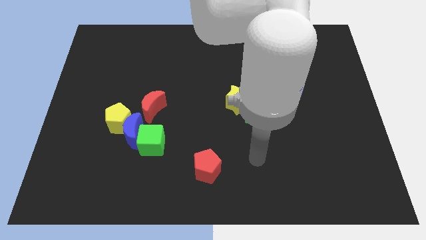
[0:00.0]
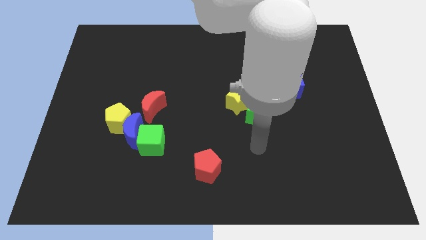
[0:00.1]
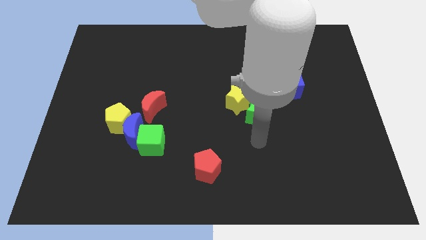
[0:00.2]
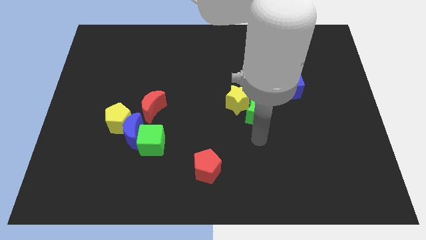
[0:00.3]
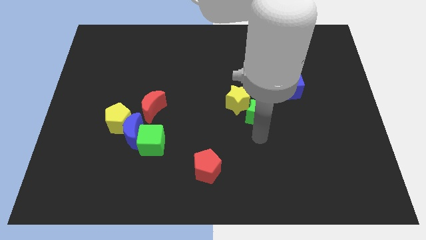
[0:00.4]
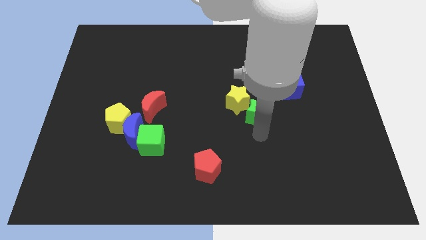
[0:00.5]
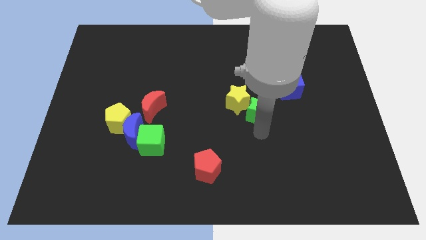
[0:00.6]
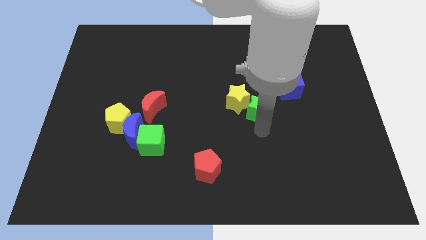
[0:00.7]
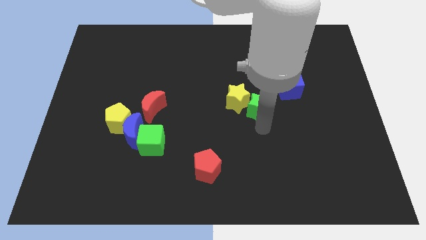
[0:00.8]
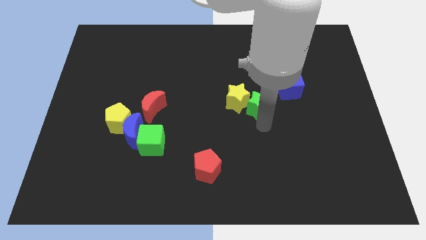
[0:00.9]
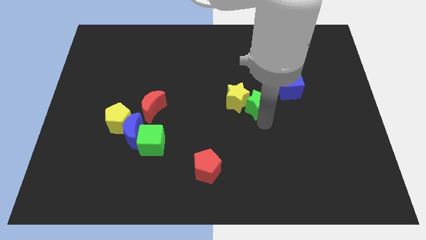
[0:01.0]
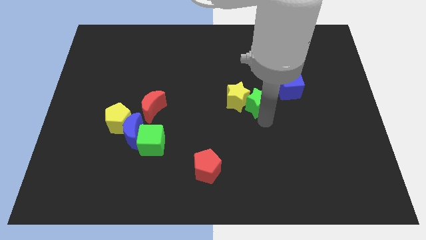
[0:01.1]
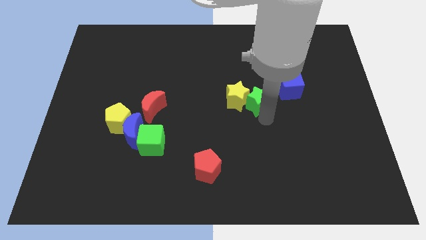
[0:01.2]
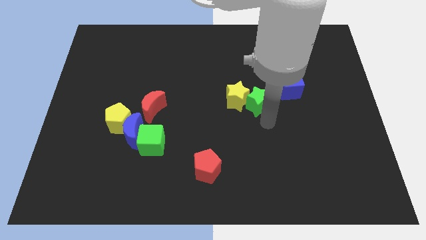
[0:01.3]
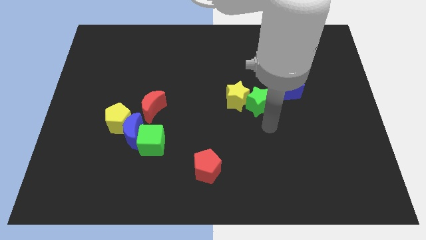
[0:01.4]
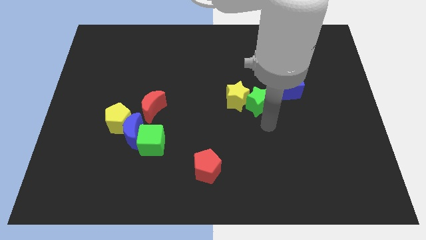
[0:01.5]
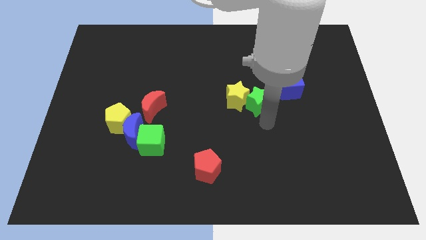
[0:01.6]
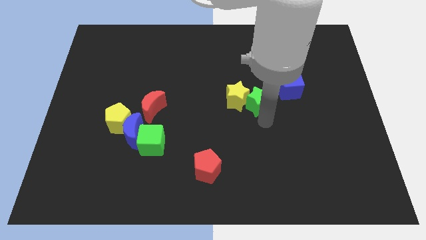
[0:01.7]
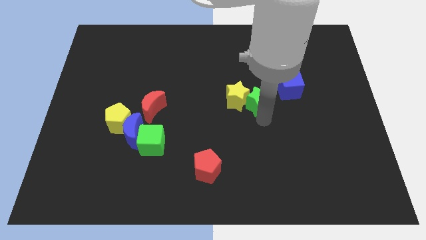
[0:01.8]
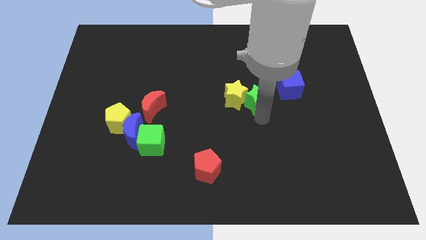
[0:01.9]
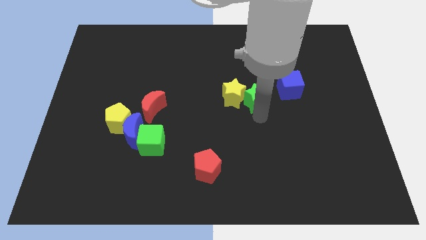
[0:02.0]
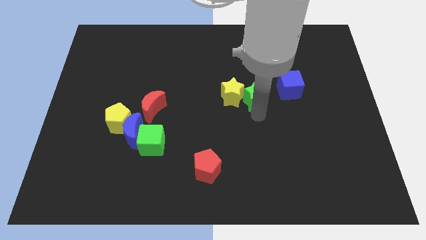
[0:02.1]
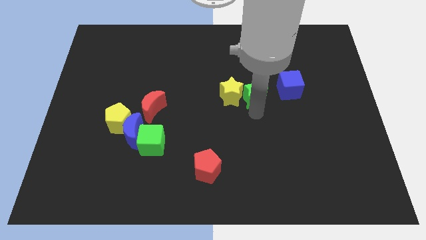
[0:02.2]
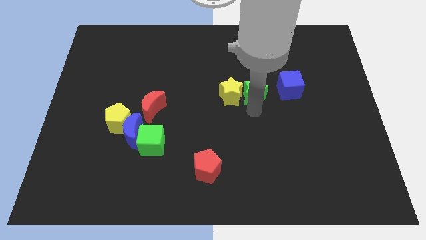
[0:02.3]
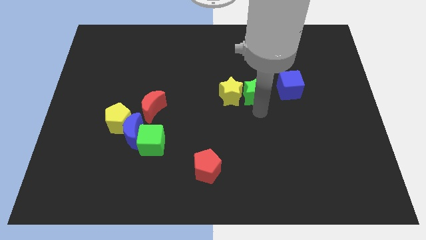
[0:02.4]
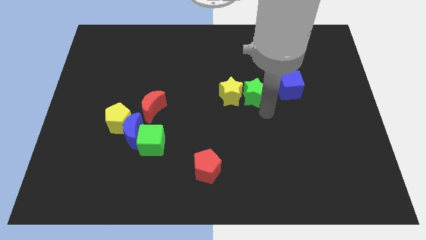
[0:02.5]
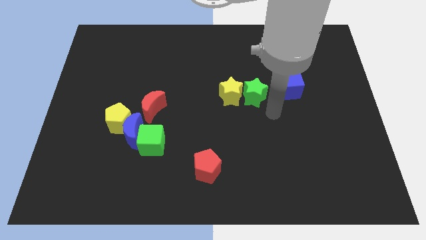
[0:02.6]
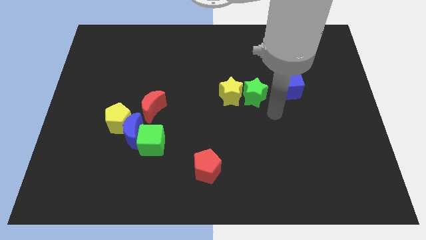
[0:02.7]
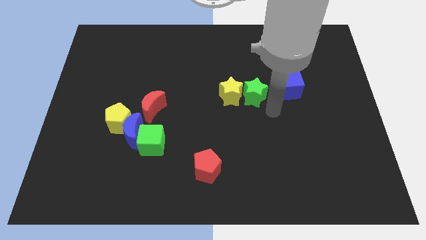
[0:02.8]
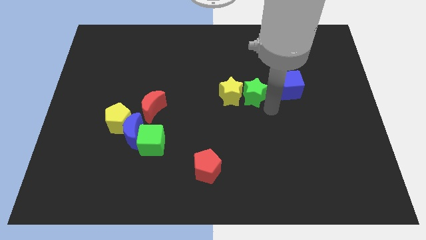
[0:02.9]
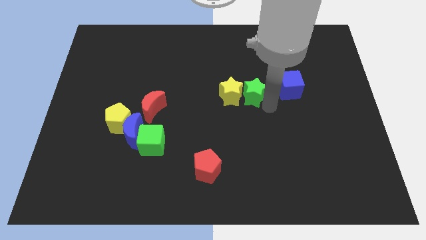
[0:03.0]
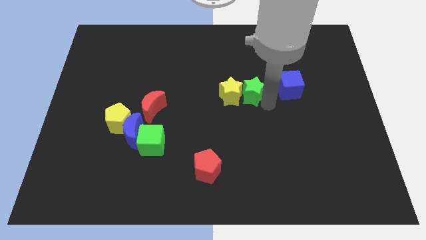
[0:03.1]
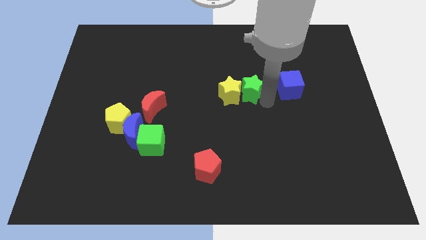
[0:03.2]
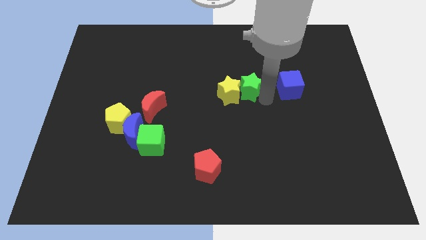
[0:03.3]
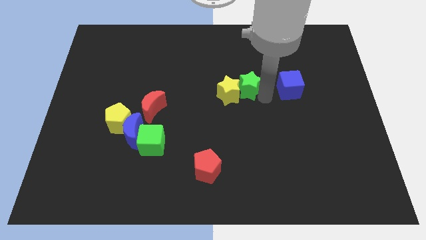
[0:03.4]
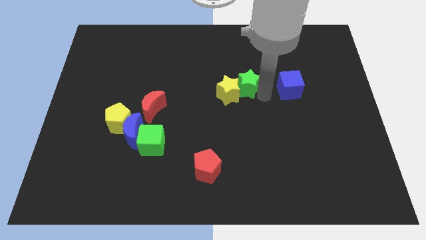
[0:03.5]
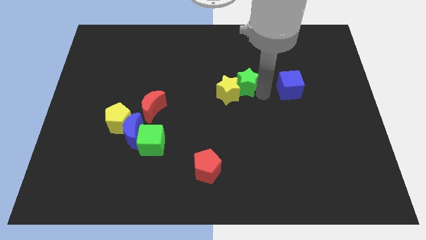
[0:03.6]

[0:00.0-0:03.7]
slide the green star up and then left a bit

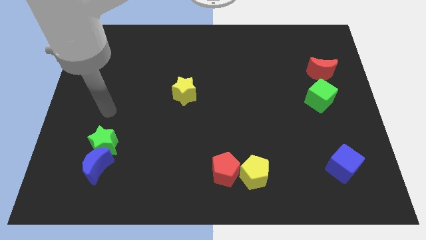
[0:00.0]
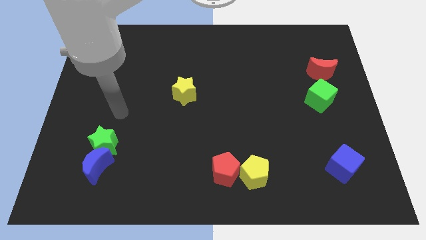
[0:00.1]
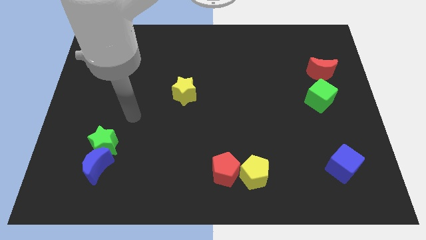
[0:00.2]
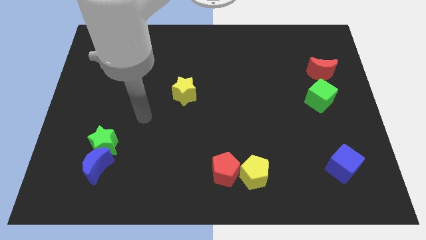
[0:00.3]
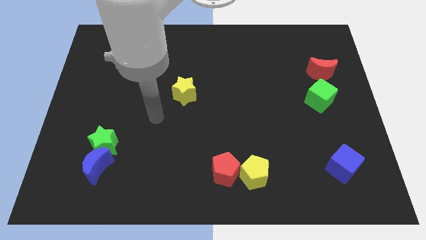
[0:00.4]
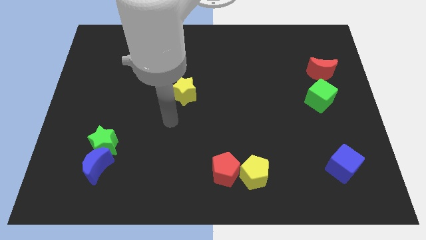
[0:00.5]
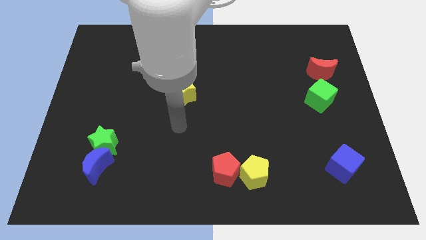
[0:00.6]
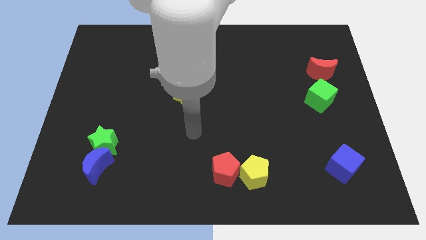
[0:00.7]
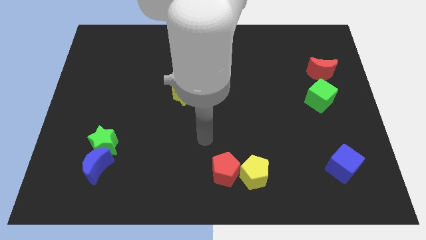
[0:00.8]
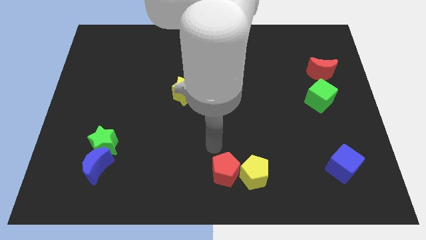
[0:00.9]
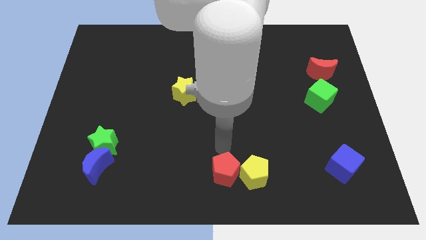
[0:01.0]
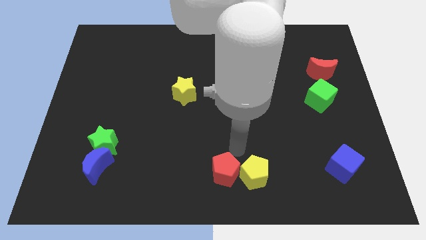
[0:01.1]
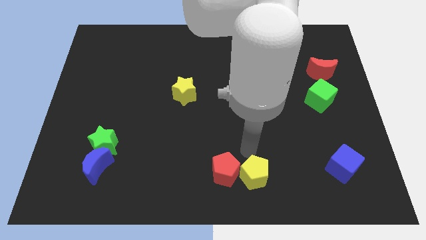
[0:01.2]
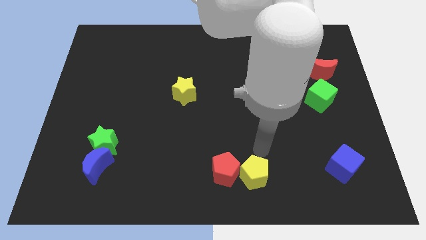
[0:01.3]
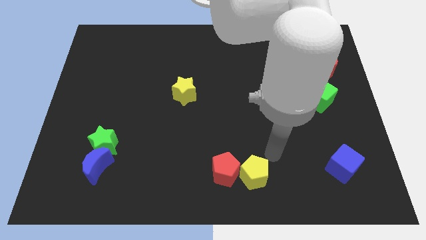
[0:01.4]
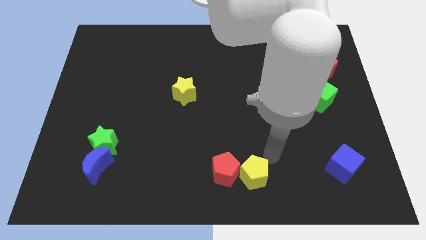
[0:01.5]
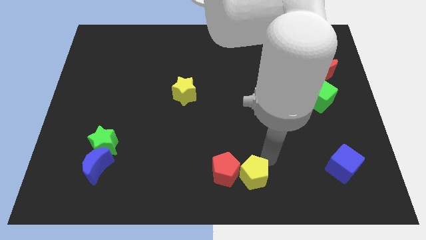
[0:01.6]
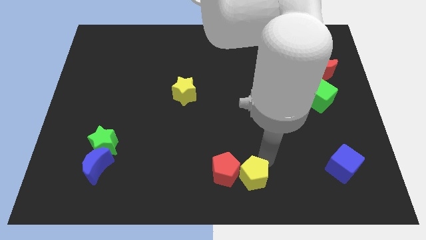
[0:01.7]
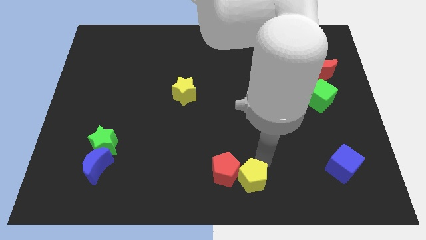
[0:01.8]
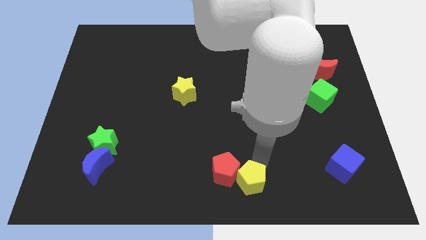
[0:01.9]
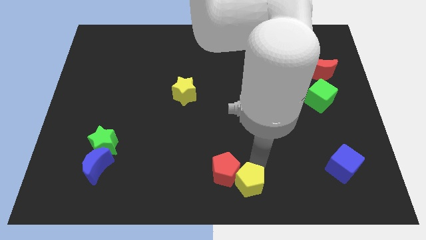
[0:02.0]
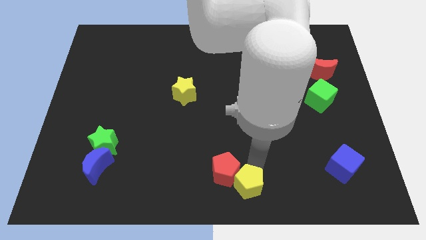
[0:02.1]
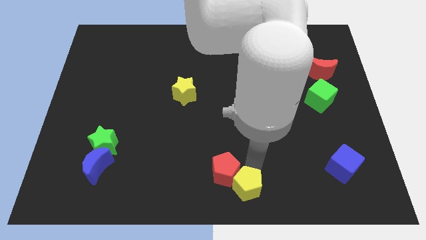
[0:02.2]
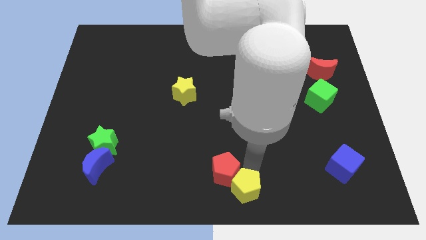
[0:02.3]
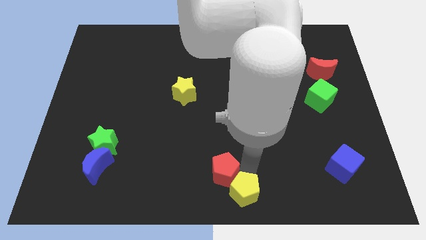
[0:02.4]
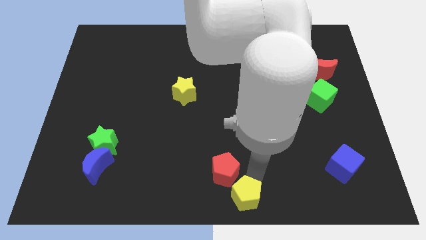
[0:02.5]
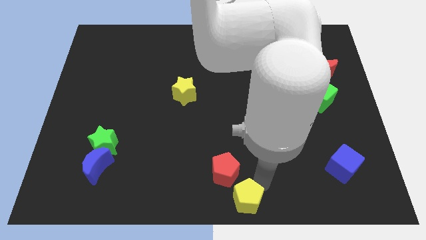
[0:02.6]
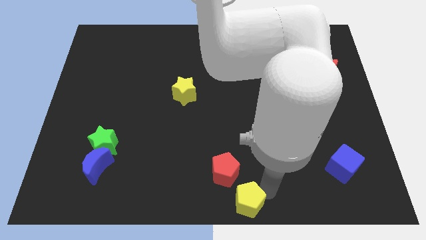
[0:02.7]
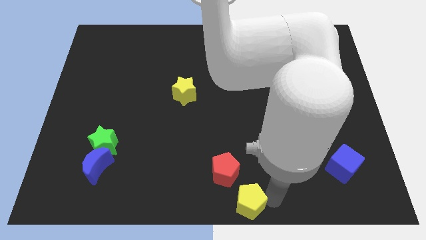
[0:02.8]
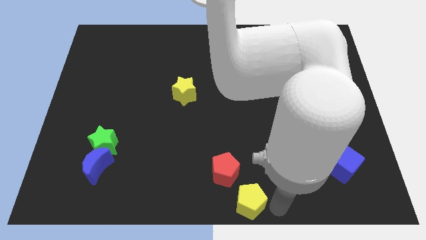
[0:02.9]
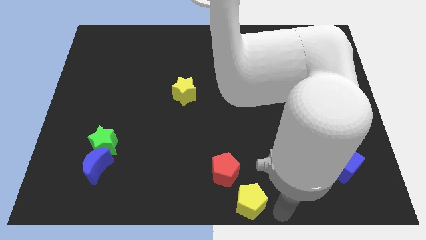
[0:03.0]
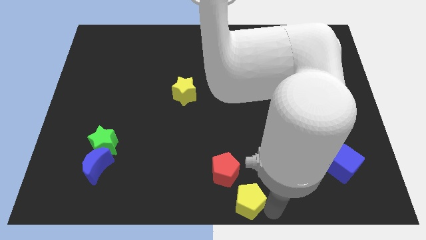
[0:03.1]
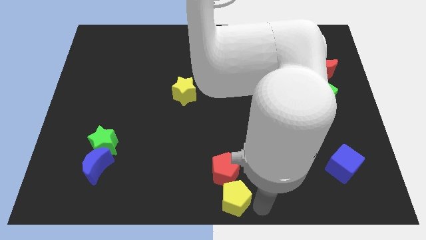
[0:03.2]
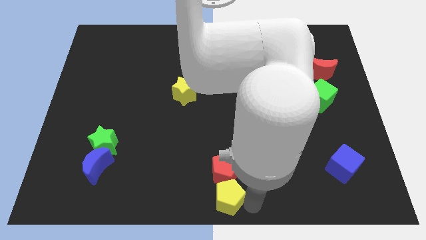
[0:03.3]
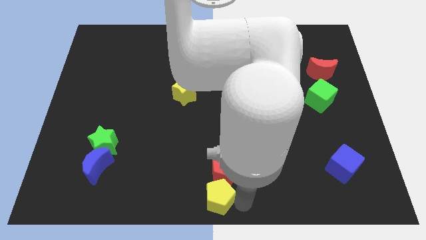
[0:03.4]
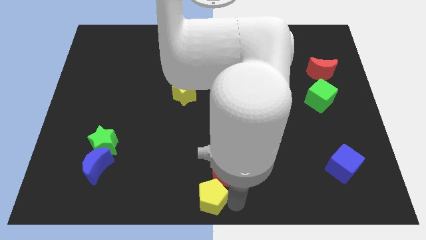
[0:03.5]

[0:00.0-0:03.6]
move the yellow pentagon left a little

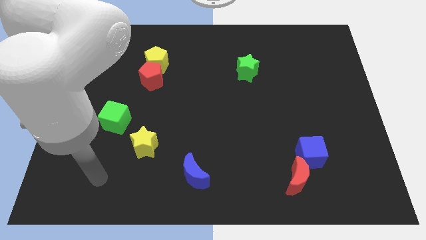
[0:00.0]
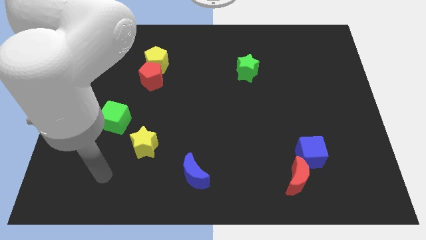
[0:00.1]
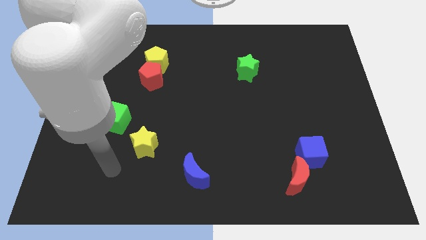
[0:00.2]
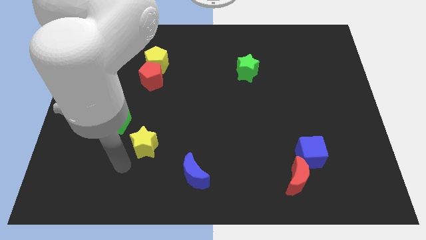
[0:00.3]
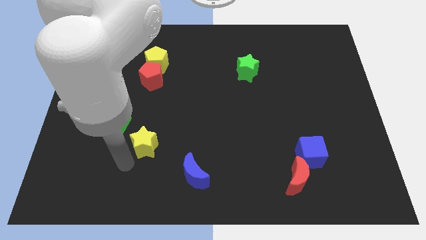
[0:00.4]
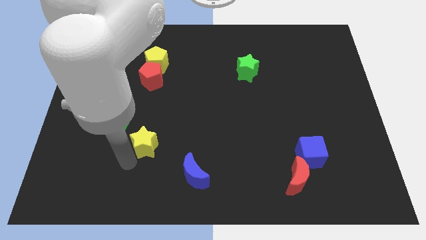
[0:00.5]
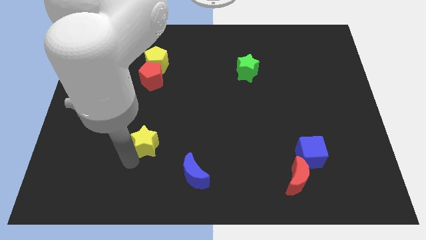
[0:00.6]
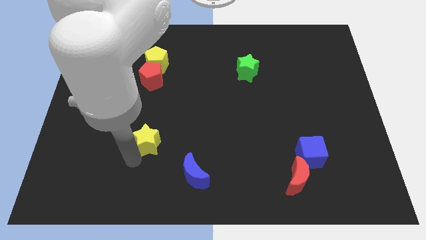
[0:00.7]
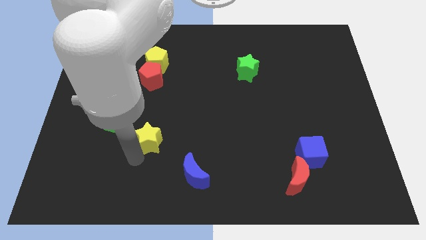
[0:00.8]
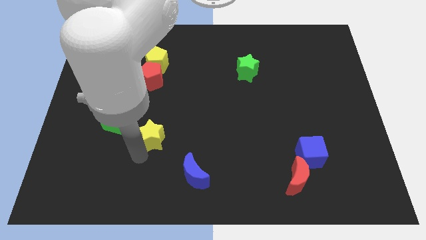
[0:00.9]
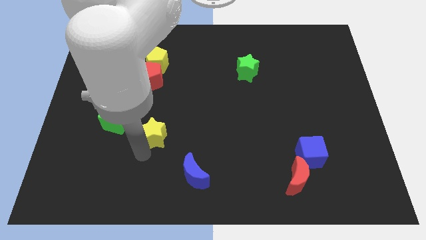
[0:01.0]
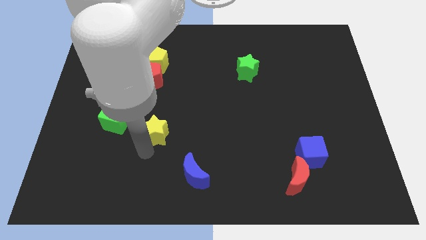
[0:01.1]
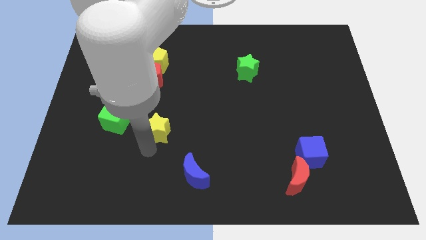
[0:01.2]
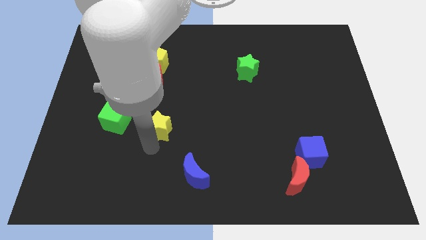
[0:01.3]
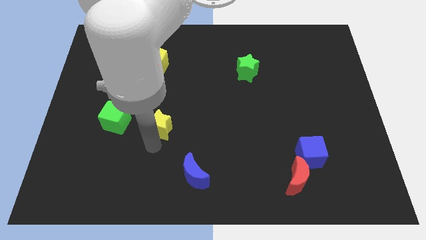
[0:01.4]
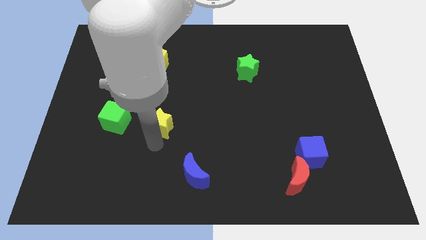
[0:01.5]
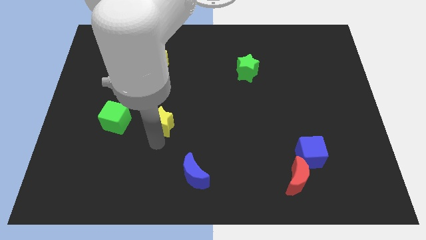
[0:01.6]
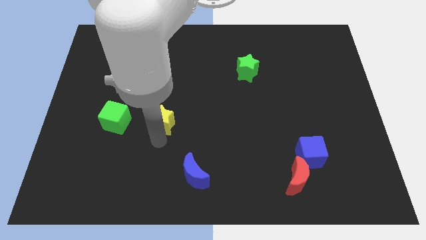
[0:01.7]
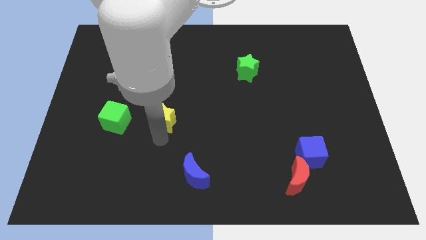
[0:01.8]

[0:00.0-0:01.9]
push the yellow star up and to the right slightly
